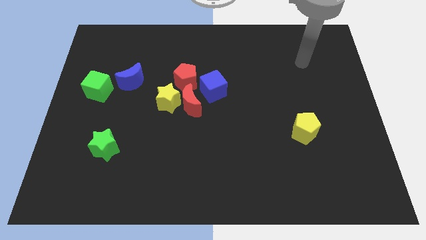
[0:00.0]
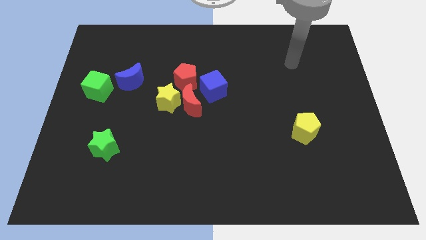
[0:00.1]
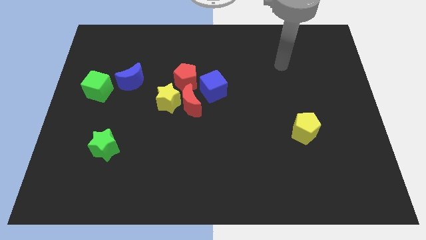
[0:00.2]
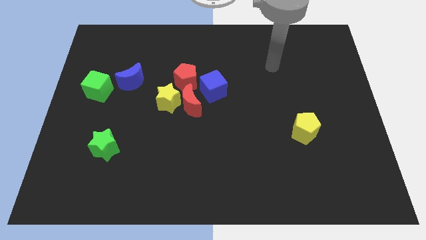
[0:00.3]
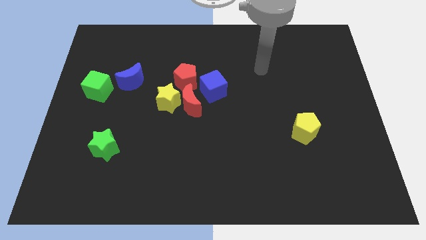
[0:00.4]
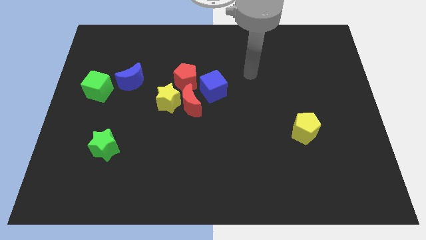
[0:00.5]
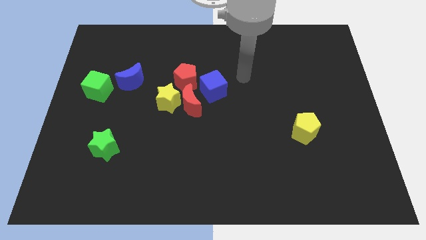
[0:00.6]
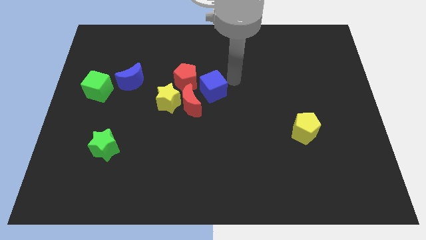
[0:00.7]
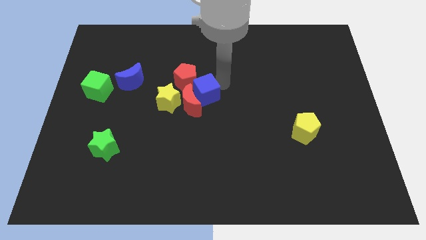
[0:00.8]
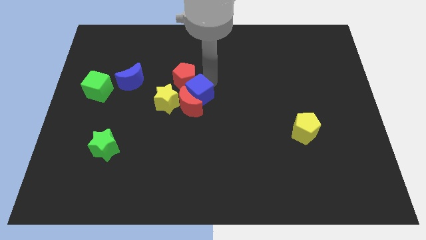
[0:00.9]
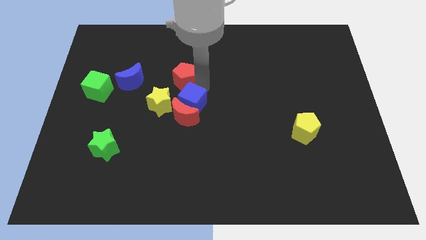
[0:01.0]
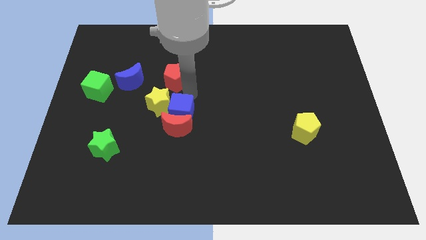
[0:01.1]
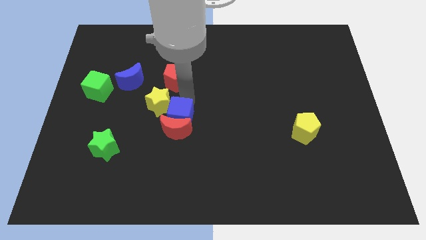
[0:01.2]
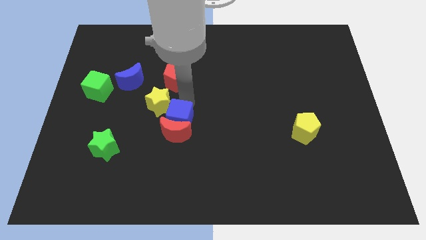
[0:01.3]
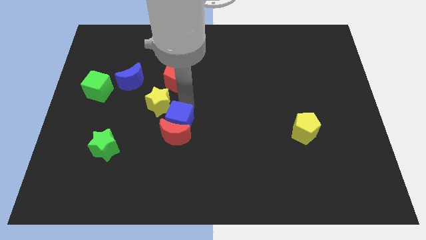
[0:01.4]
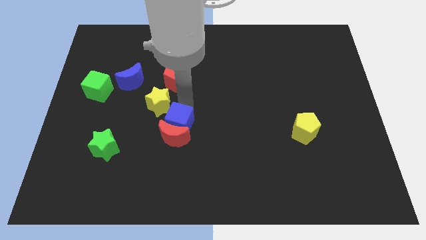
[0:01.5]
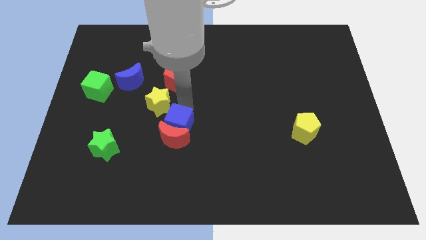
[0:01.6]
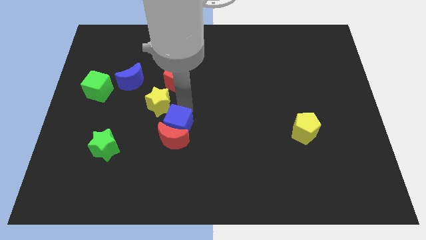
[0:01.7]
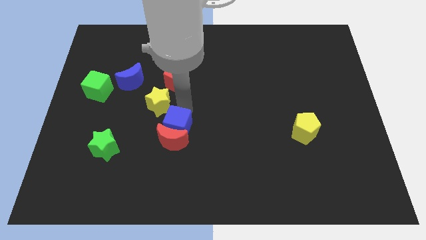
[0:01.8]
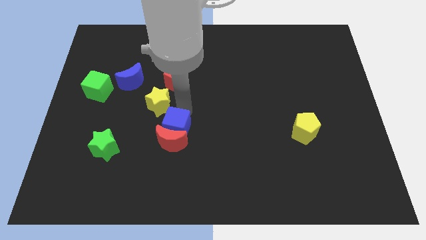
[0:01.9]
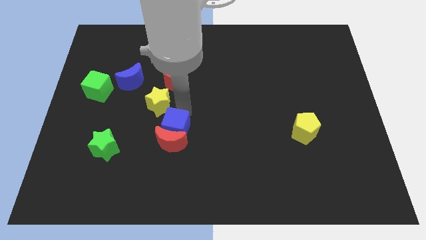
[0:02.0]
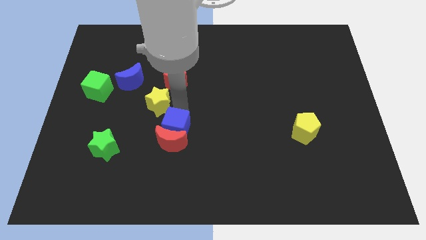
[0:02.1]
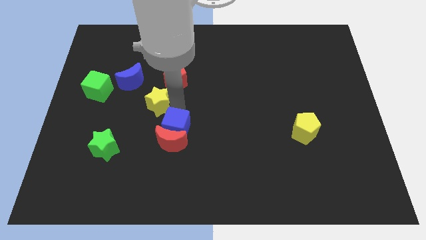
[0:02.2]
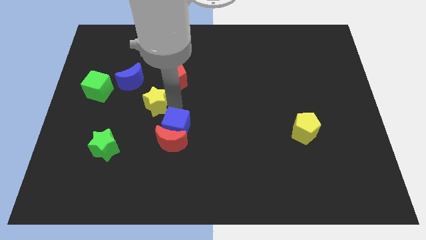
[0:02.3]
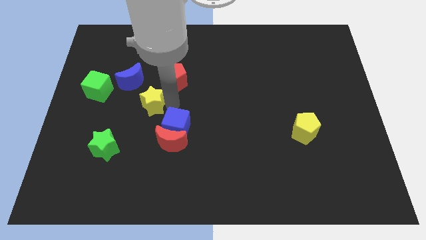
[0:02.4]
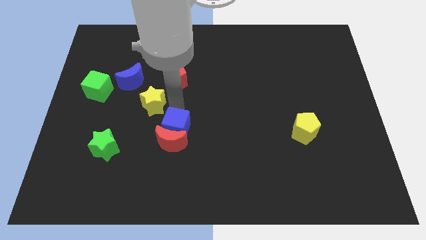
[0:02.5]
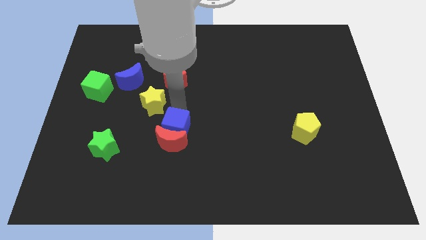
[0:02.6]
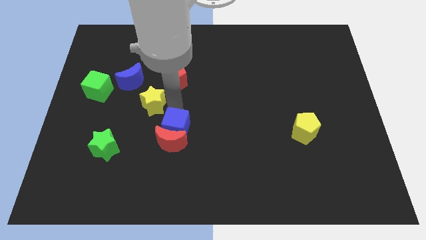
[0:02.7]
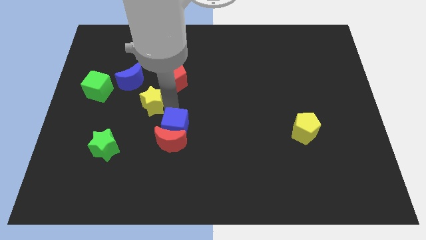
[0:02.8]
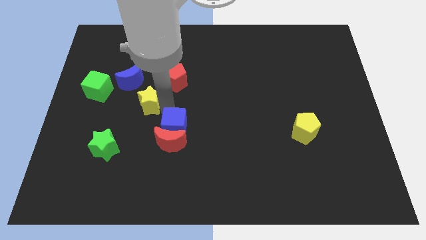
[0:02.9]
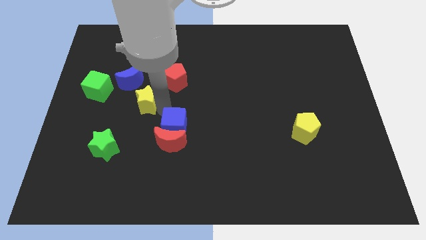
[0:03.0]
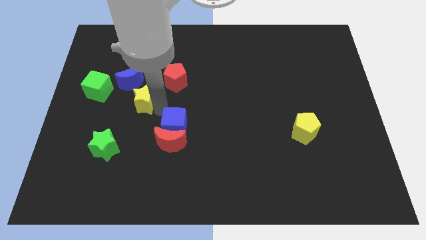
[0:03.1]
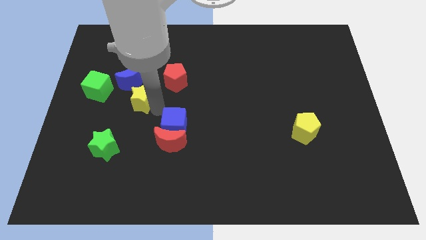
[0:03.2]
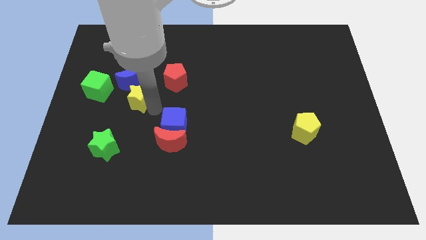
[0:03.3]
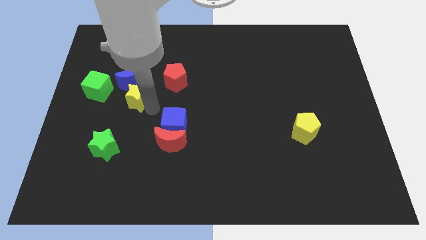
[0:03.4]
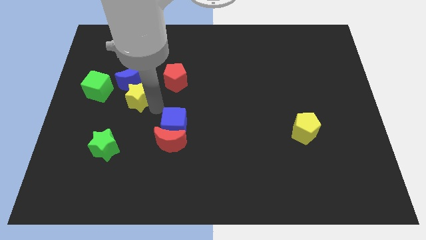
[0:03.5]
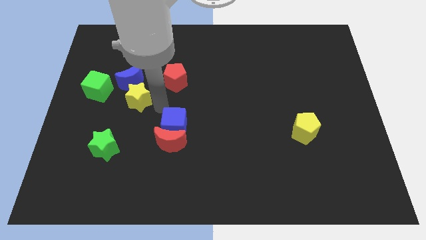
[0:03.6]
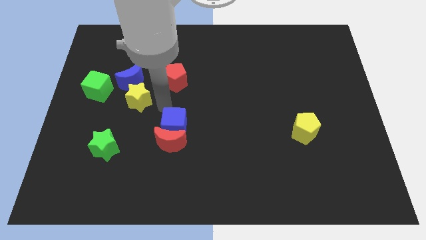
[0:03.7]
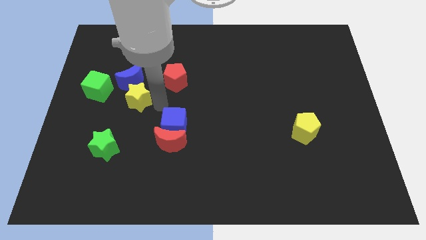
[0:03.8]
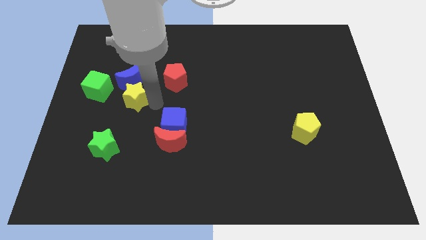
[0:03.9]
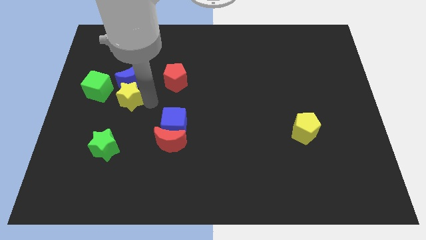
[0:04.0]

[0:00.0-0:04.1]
separate the yellow star from the red moon and red pentagon

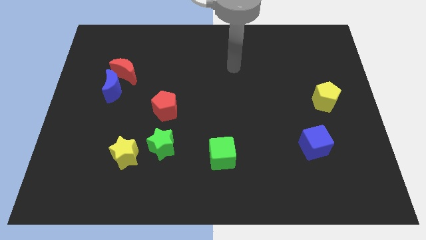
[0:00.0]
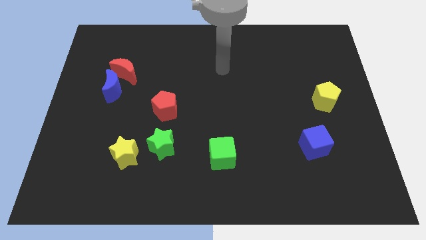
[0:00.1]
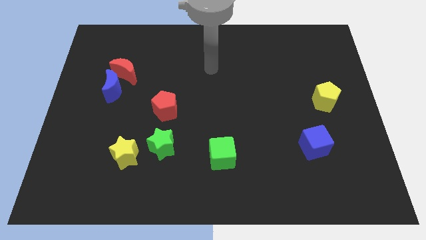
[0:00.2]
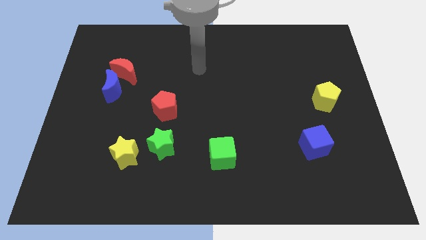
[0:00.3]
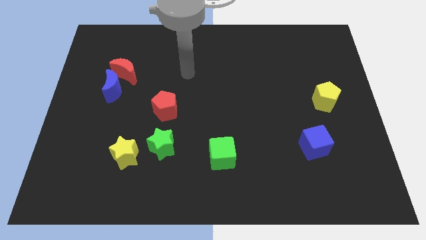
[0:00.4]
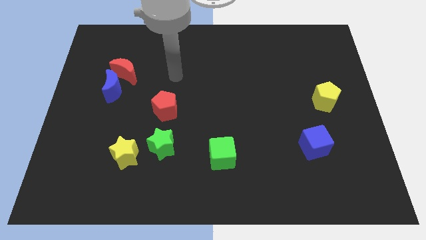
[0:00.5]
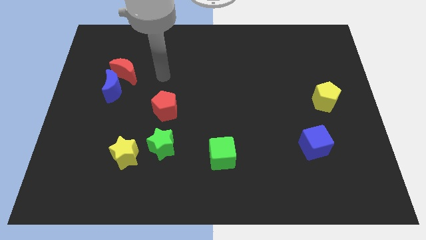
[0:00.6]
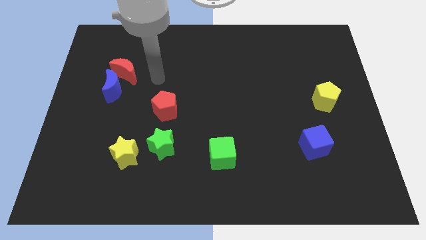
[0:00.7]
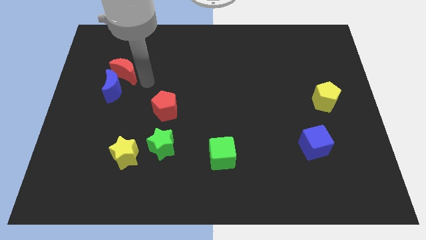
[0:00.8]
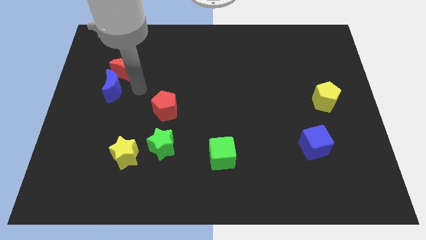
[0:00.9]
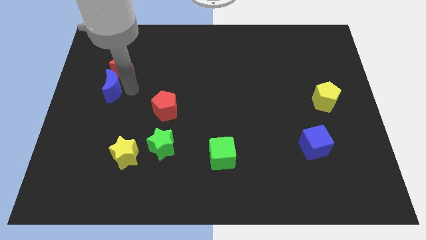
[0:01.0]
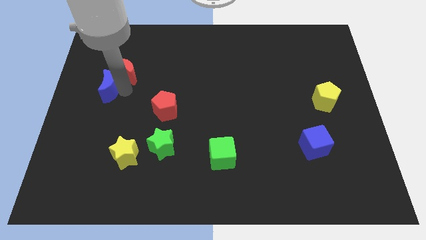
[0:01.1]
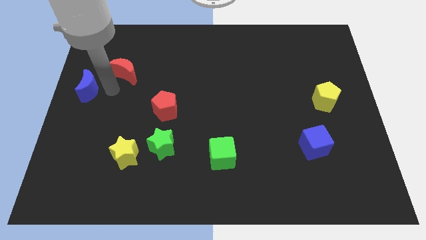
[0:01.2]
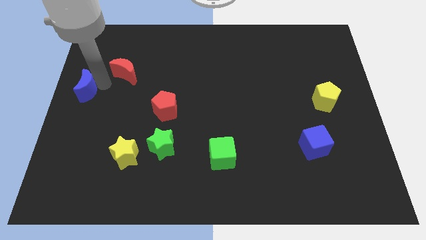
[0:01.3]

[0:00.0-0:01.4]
separate the red moon from the blue moon

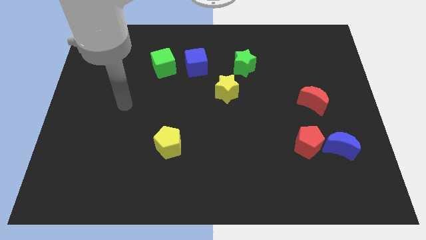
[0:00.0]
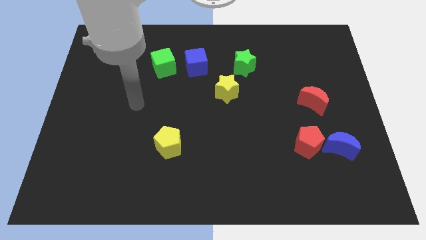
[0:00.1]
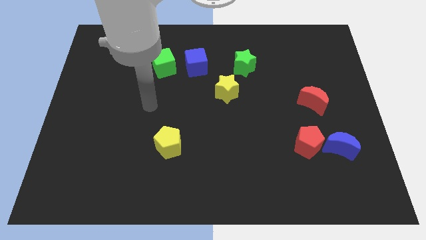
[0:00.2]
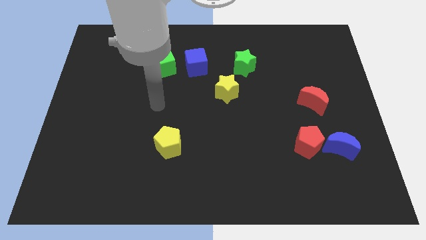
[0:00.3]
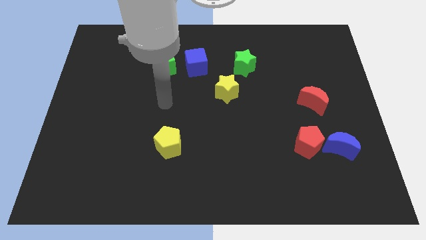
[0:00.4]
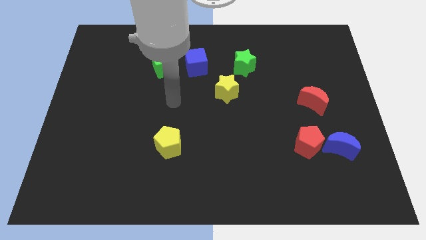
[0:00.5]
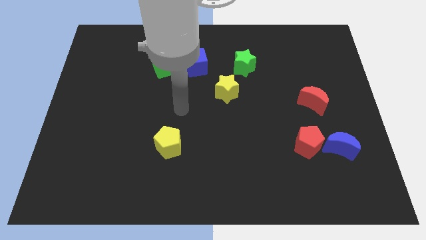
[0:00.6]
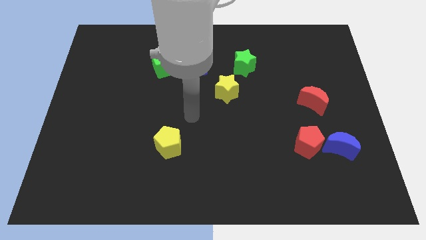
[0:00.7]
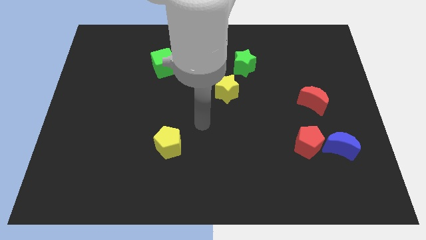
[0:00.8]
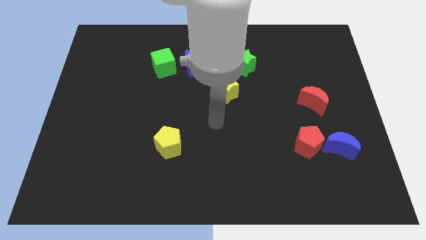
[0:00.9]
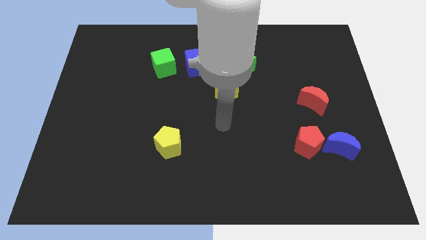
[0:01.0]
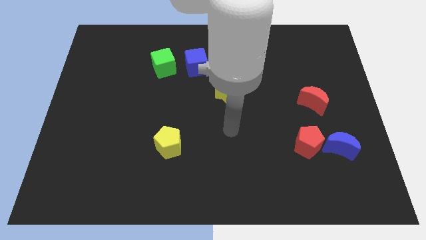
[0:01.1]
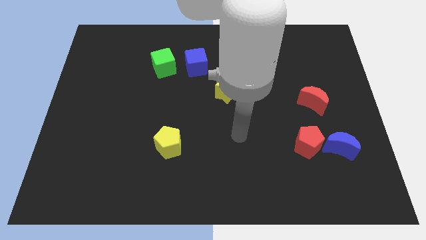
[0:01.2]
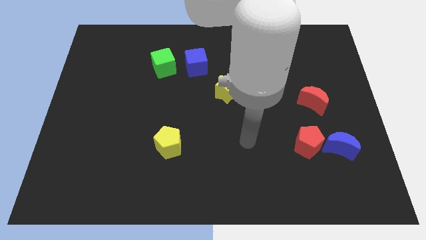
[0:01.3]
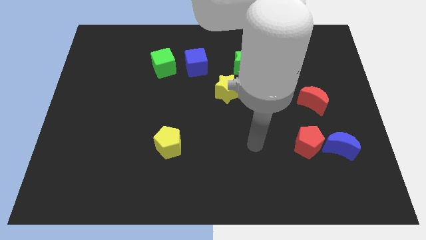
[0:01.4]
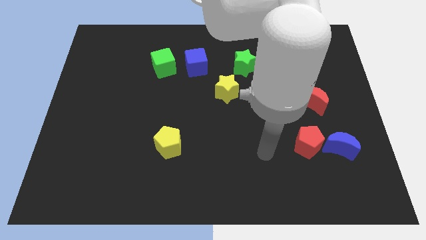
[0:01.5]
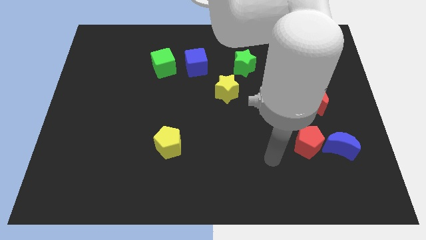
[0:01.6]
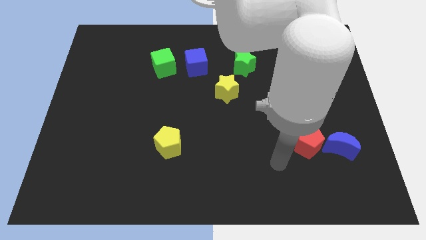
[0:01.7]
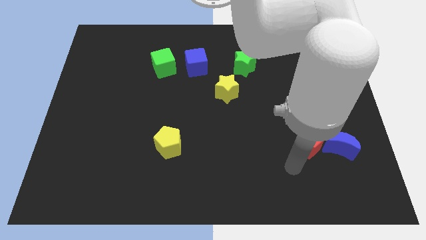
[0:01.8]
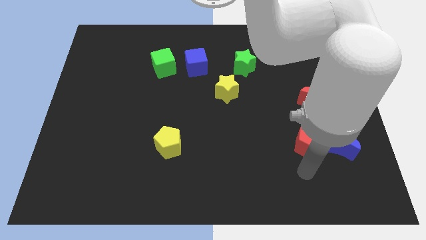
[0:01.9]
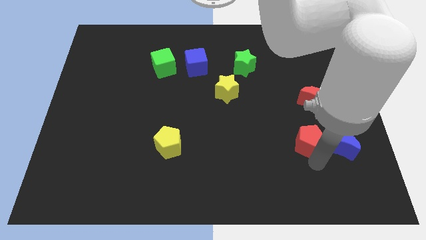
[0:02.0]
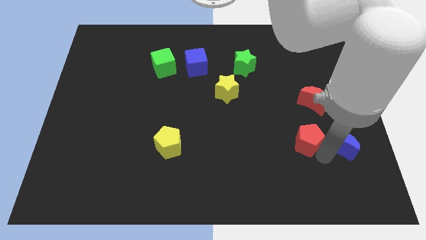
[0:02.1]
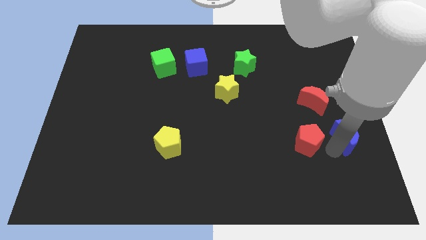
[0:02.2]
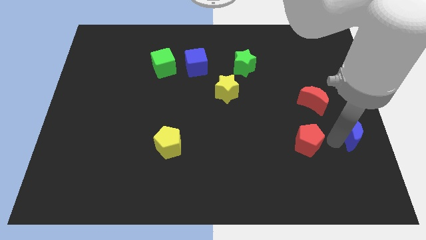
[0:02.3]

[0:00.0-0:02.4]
pull the red pentagon apart from the blue moon

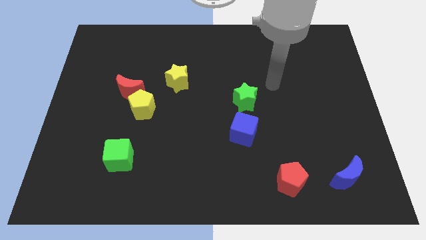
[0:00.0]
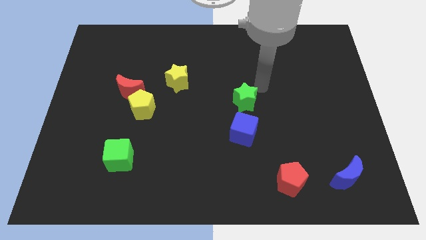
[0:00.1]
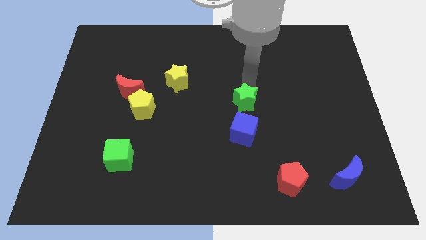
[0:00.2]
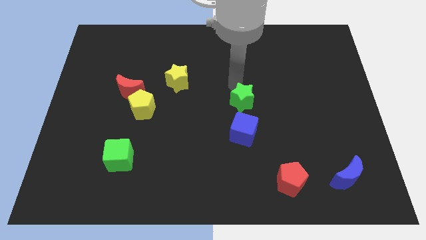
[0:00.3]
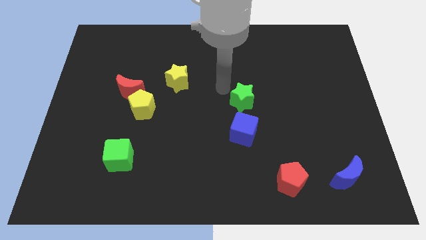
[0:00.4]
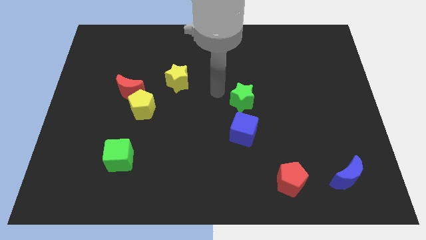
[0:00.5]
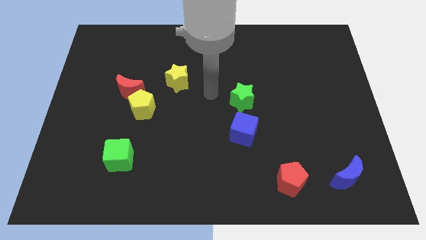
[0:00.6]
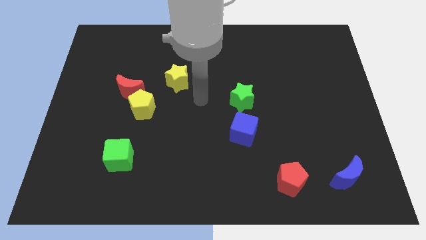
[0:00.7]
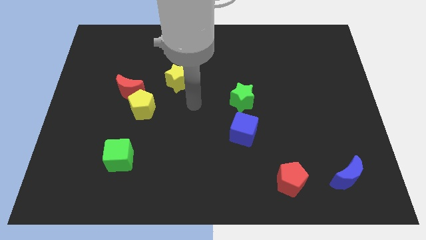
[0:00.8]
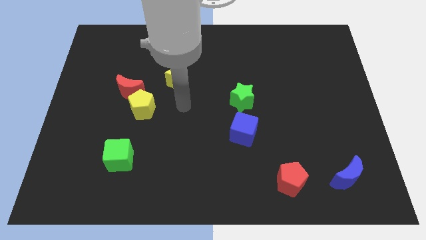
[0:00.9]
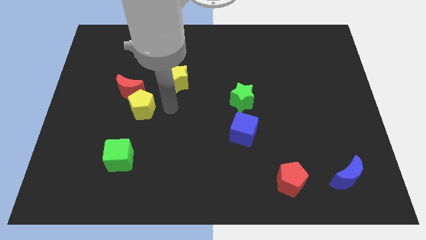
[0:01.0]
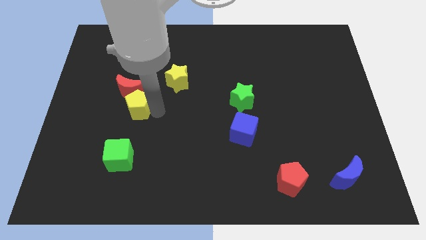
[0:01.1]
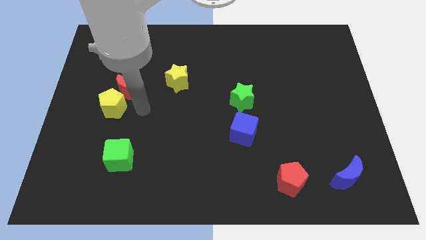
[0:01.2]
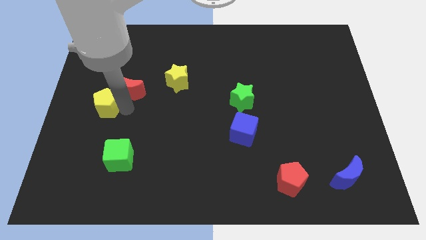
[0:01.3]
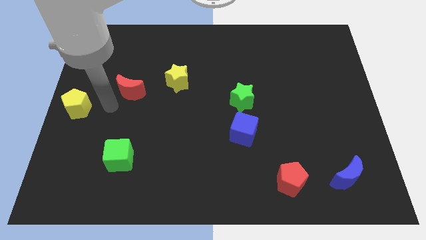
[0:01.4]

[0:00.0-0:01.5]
separate the red moon from the yellow pentagon

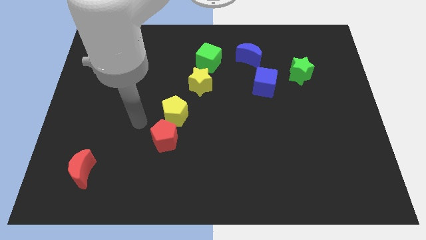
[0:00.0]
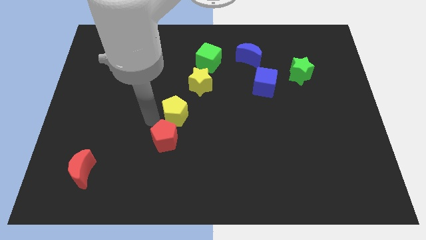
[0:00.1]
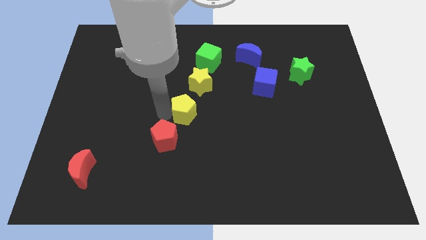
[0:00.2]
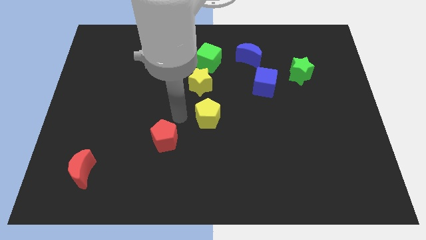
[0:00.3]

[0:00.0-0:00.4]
separate the red pentagon from the yellow pentagon
